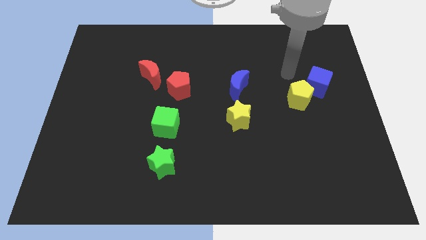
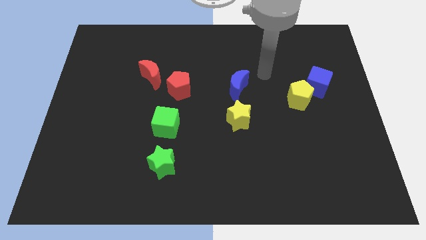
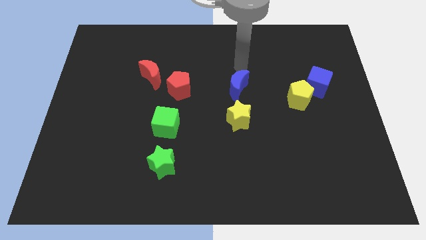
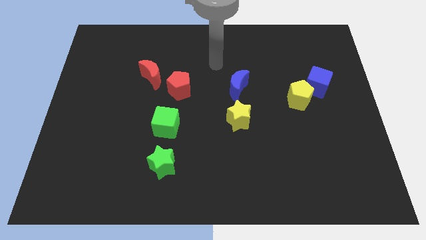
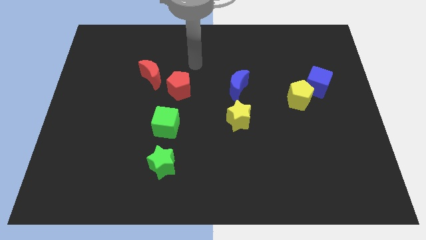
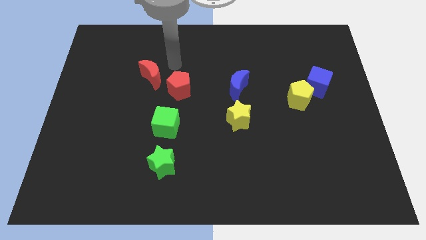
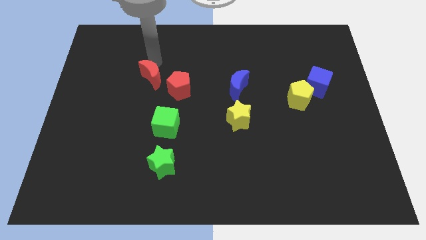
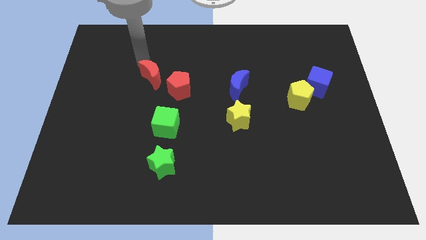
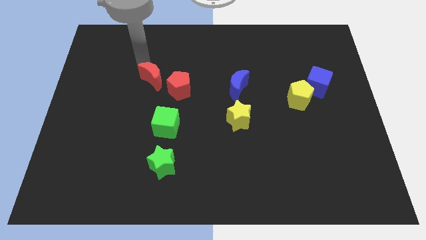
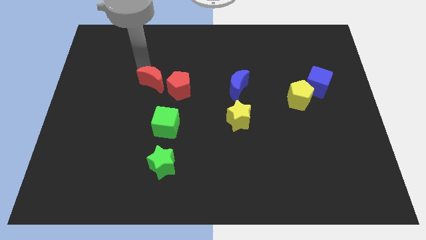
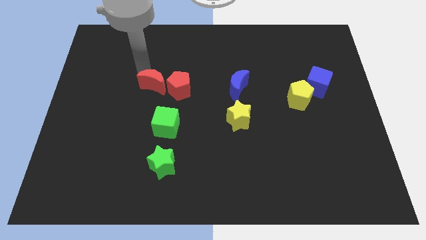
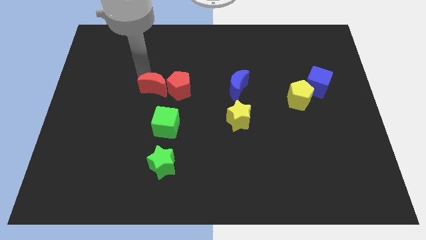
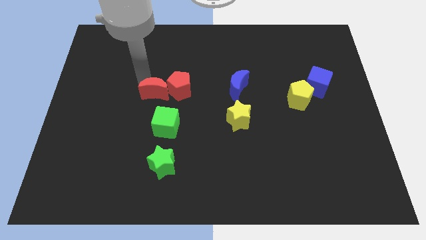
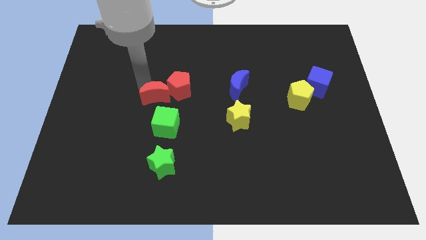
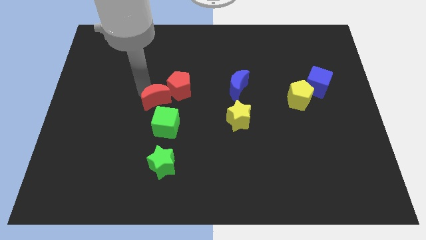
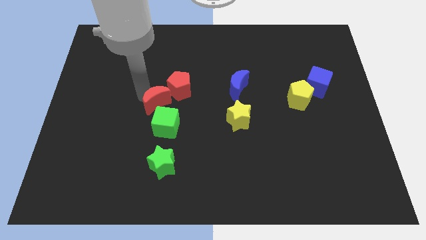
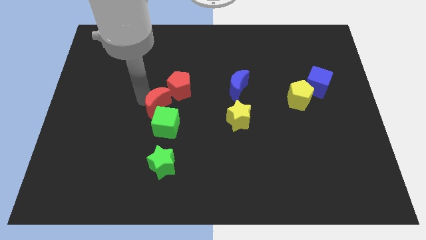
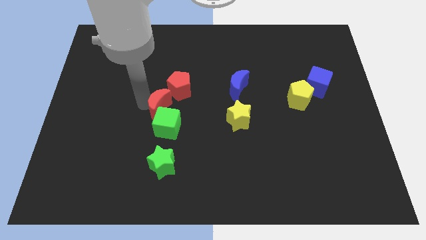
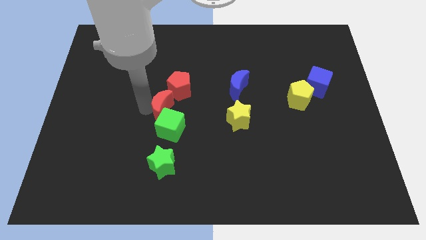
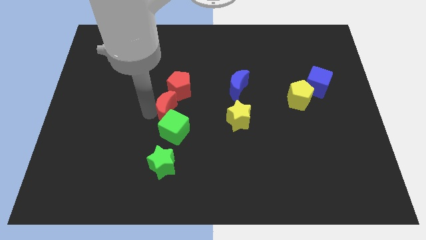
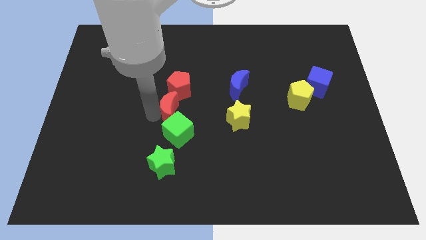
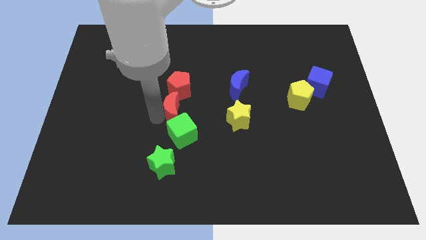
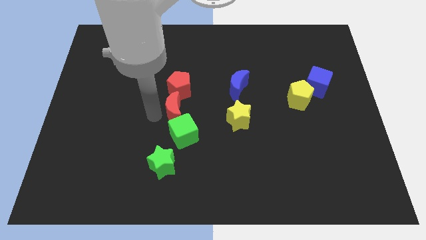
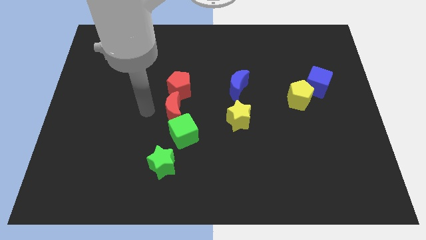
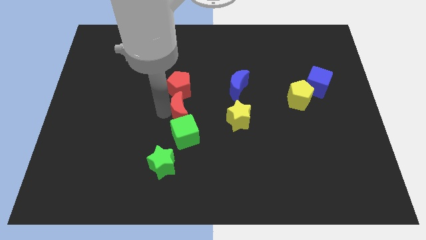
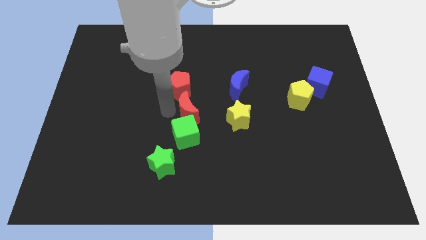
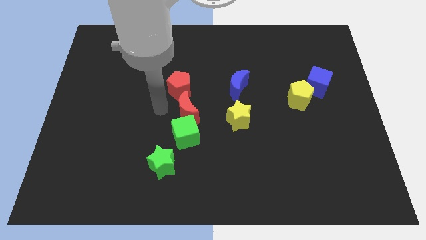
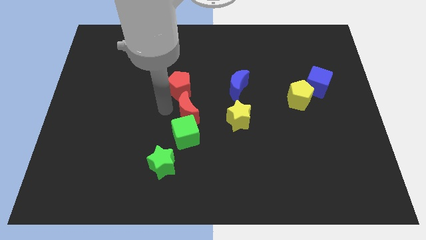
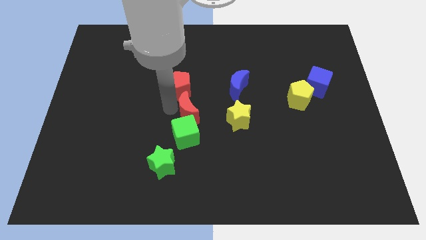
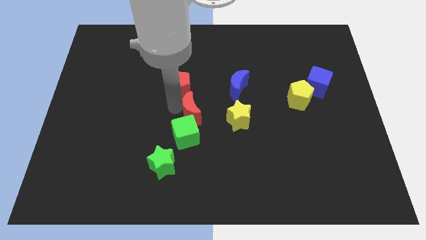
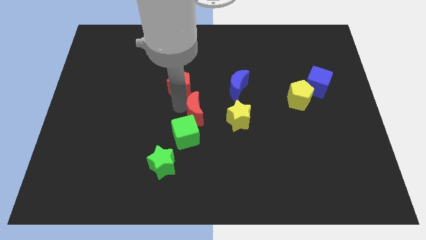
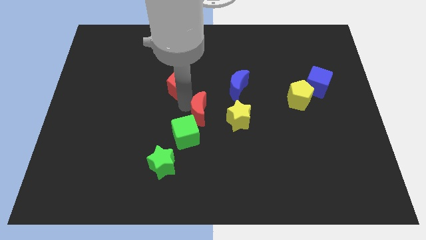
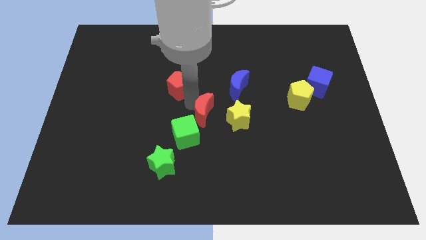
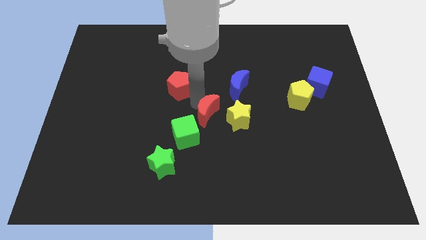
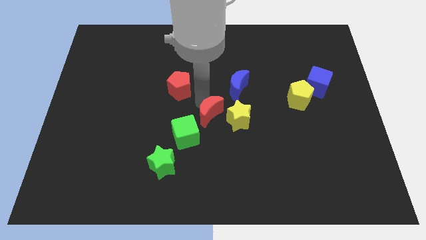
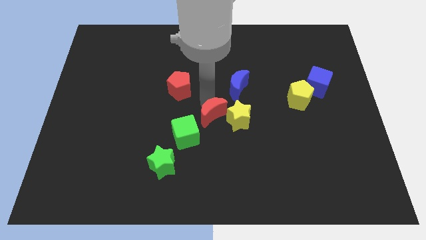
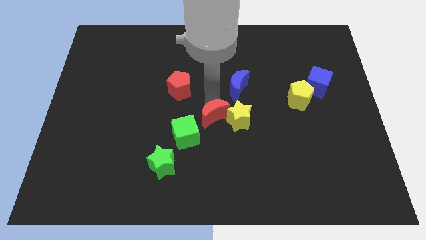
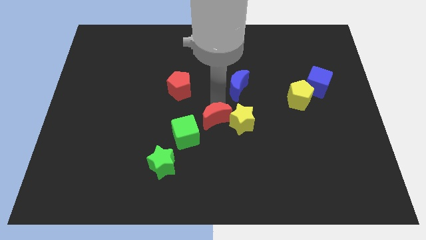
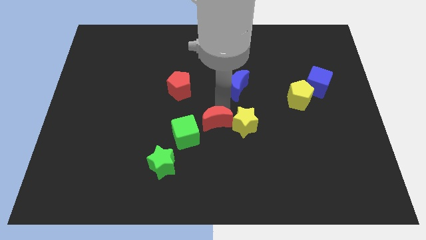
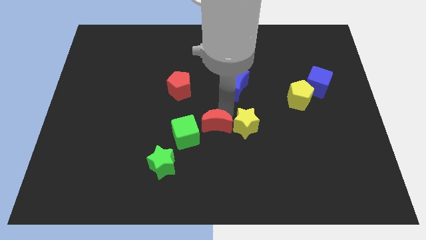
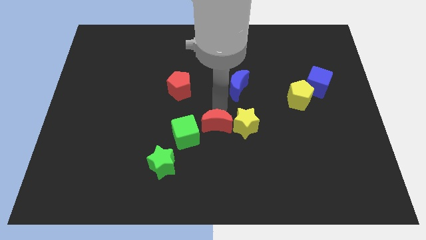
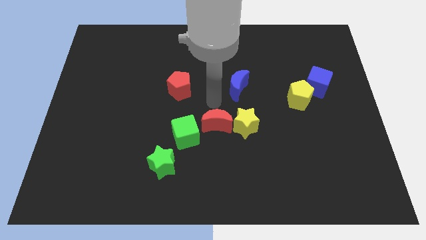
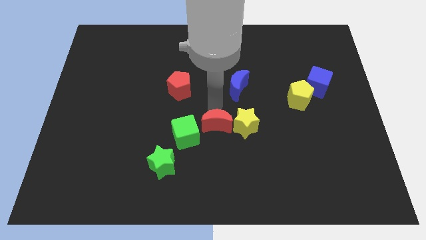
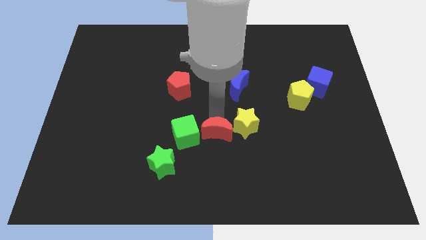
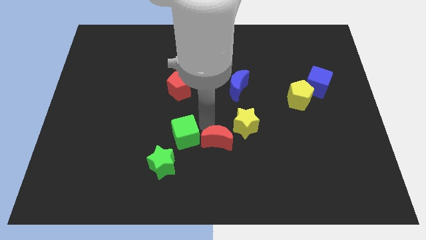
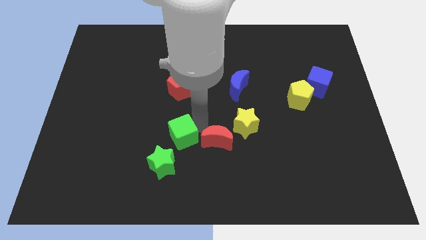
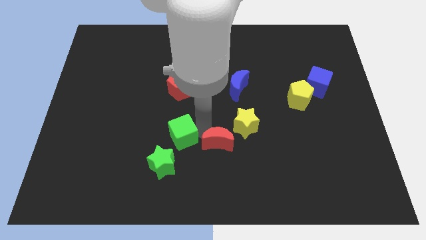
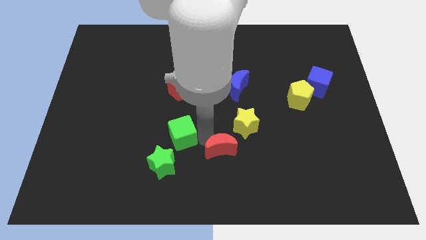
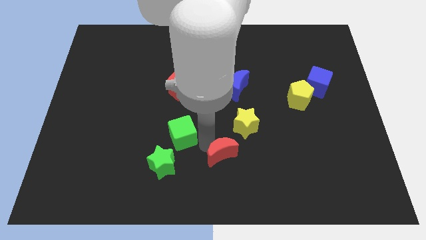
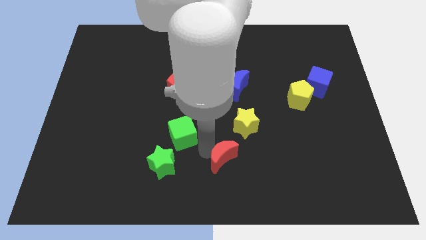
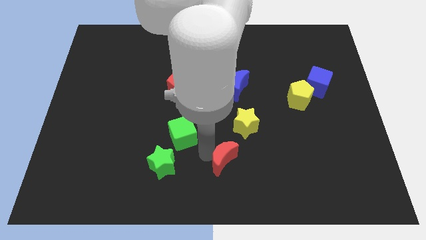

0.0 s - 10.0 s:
move the red moon below the yellow star

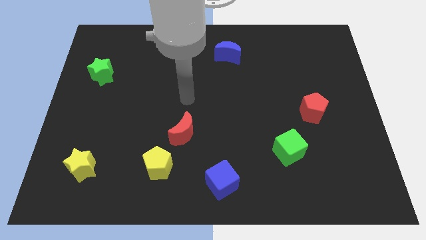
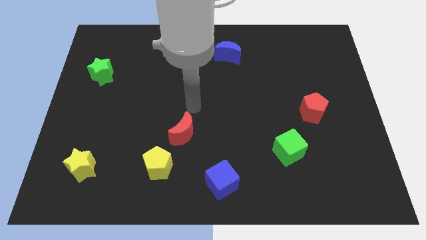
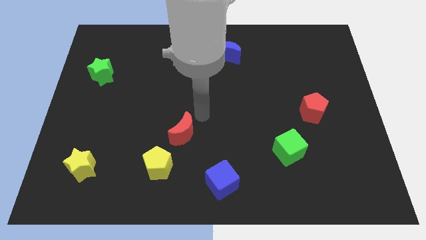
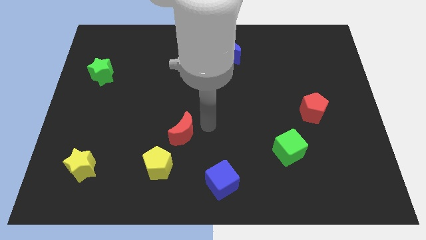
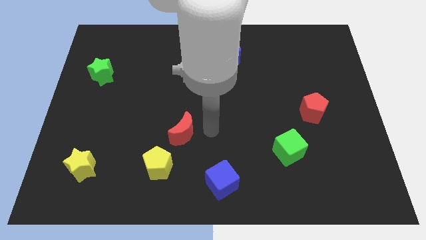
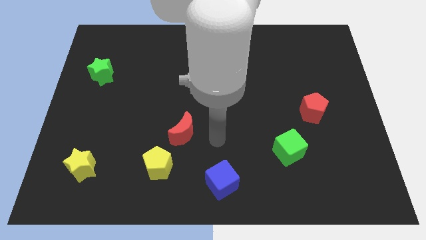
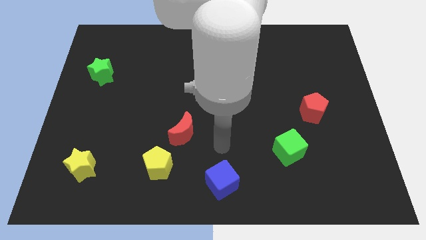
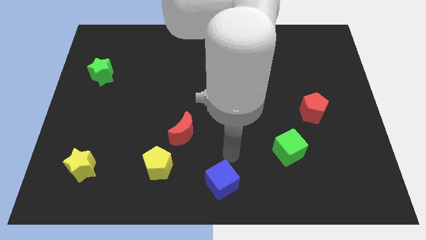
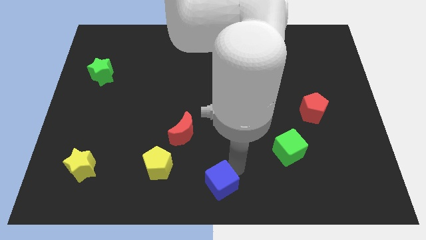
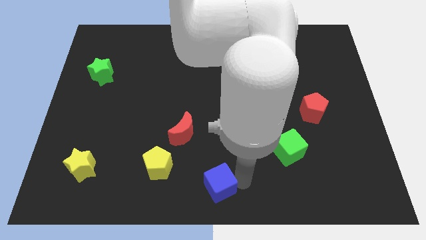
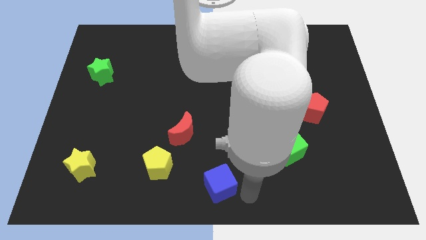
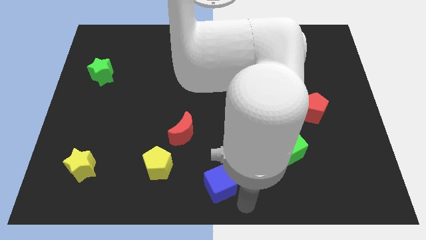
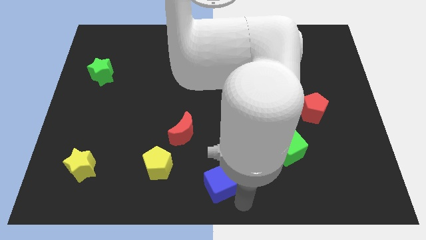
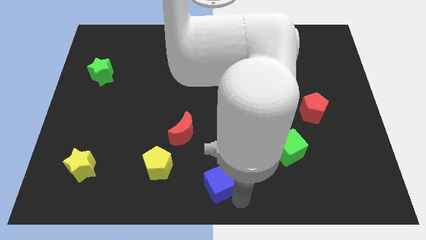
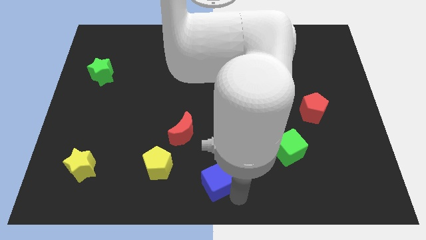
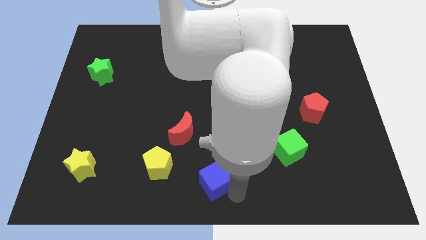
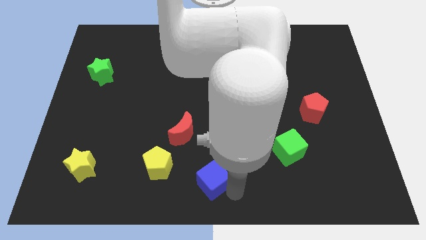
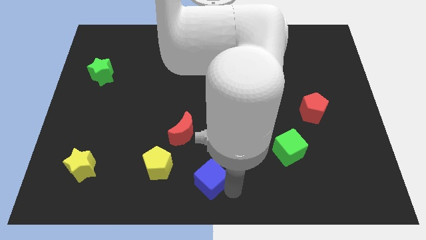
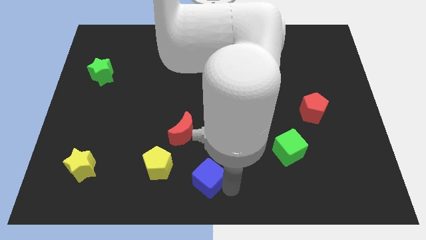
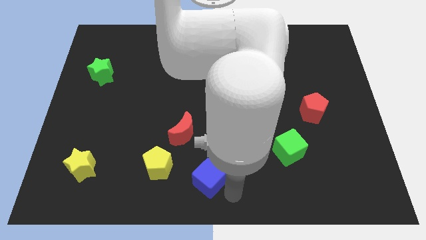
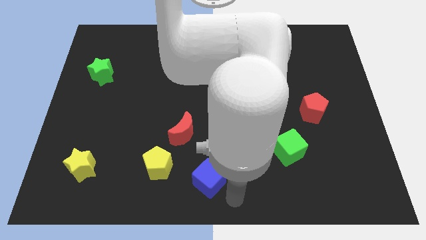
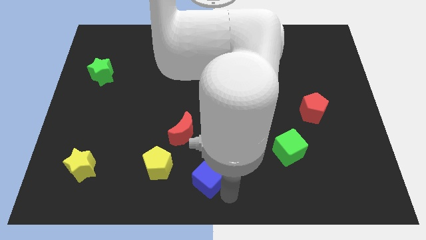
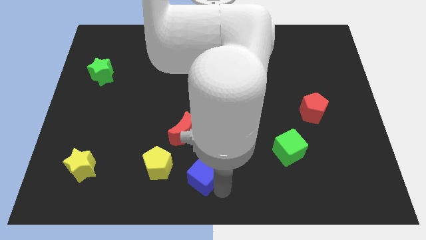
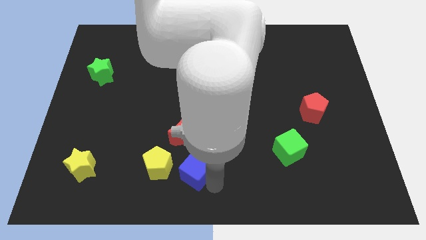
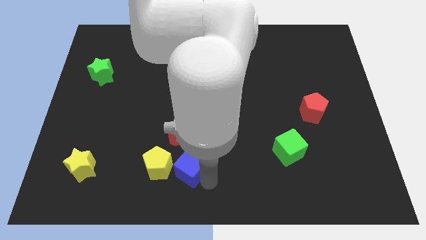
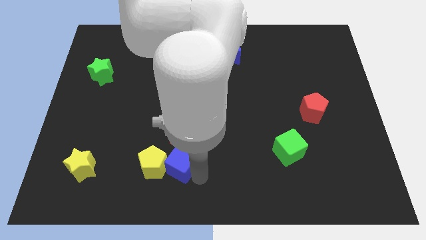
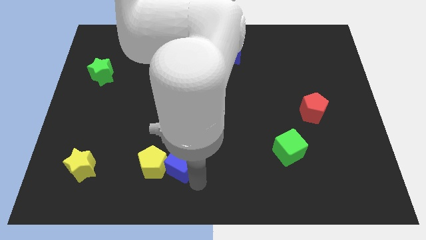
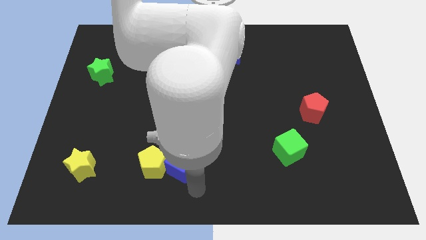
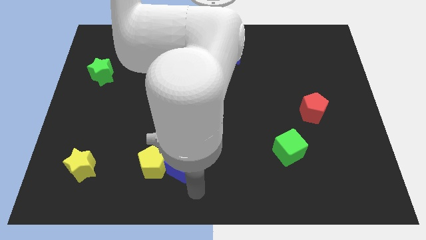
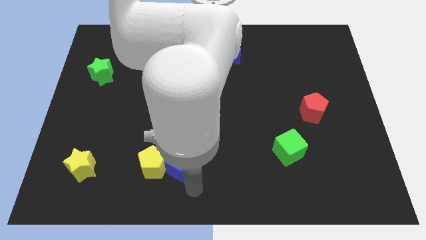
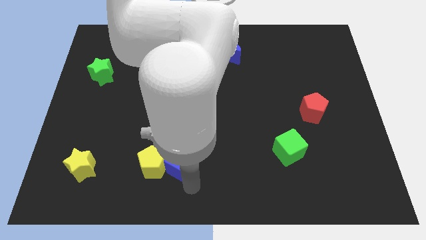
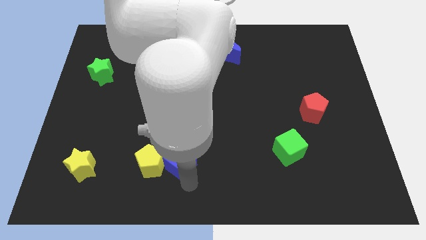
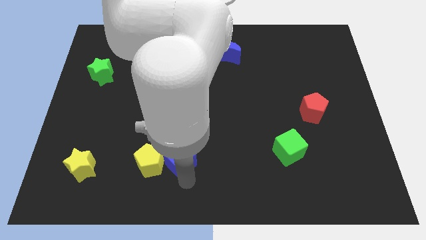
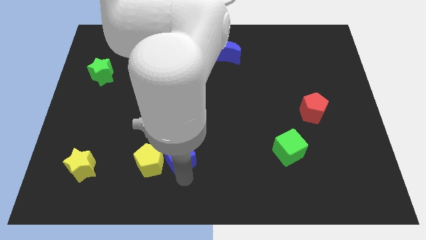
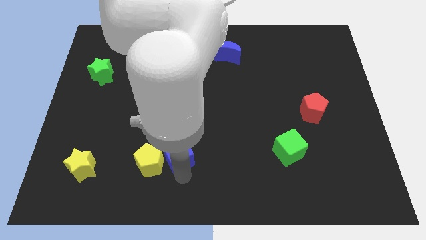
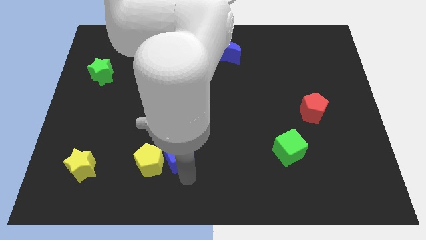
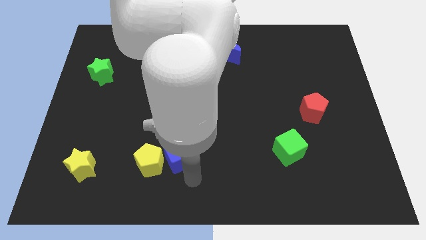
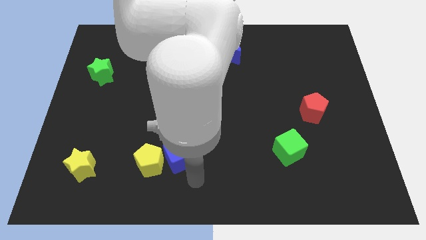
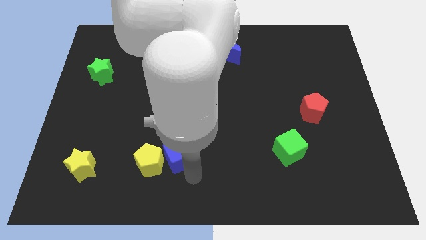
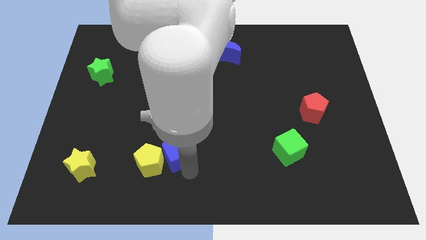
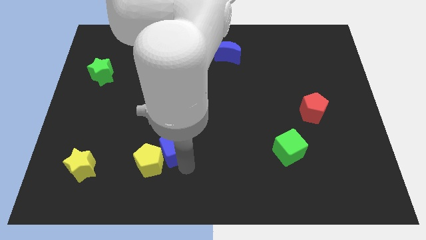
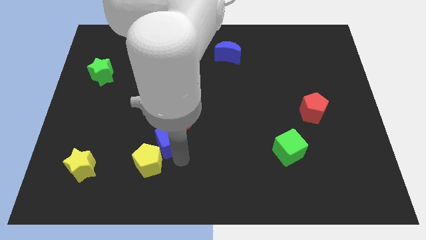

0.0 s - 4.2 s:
slide the blue cube to the top side of the yellow pentagon
